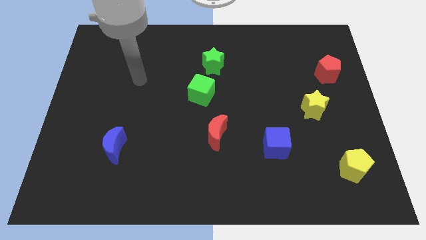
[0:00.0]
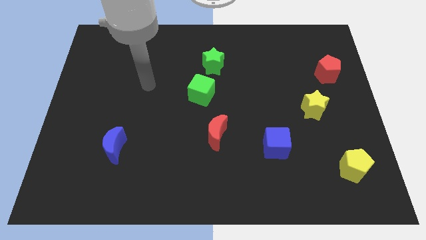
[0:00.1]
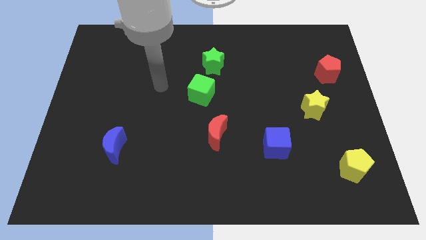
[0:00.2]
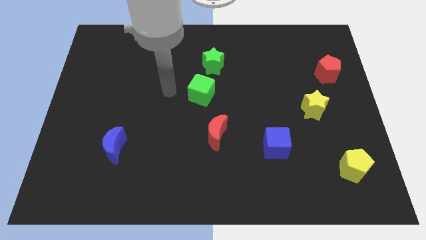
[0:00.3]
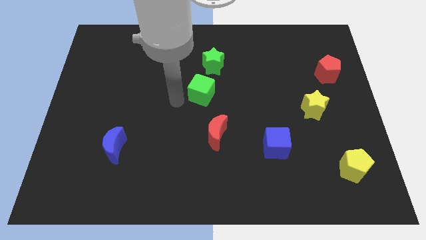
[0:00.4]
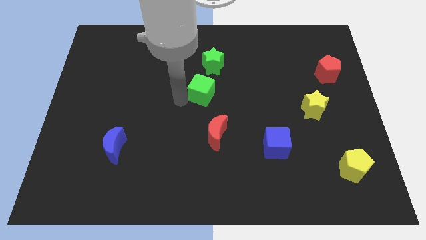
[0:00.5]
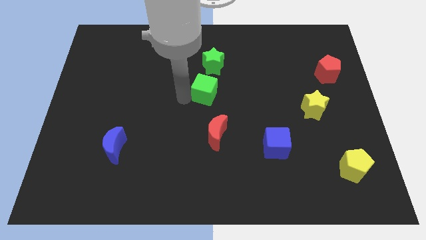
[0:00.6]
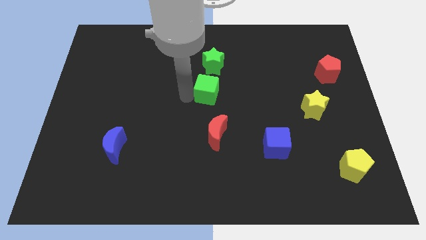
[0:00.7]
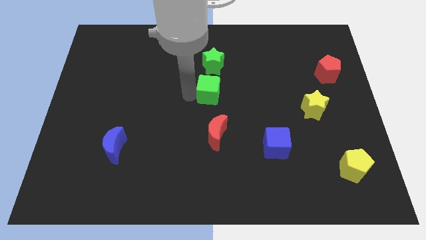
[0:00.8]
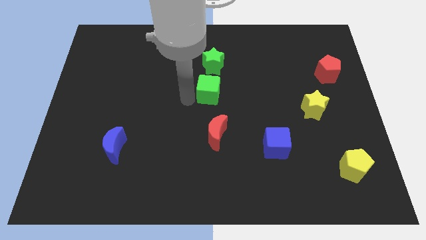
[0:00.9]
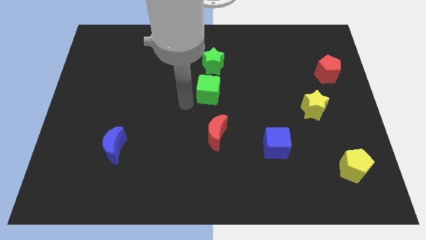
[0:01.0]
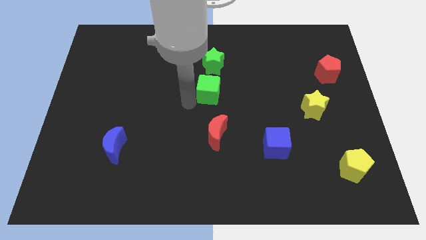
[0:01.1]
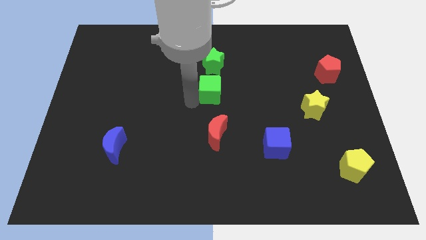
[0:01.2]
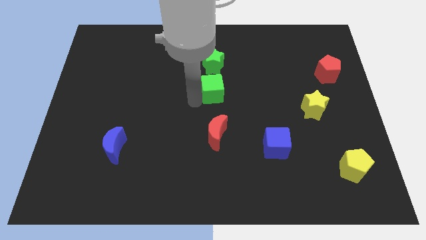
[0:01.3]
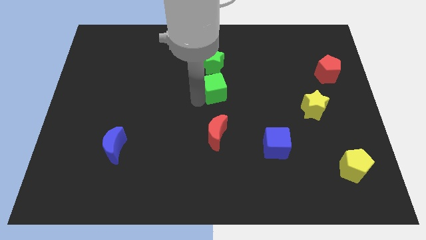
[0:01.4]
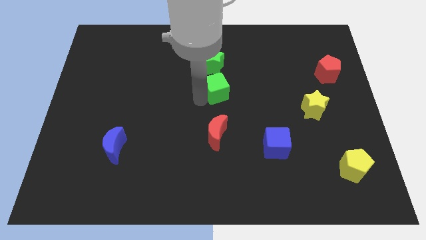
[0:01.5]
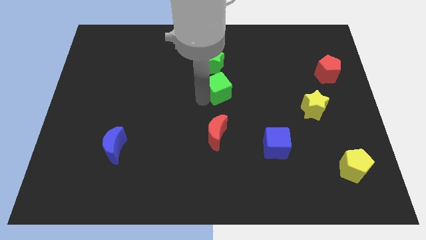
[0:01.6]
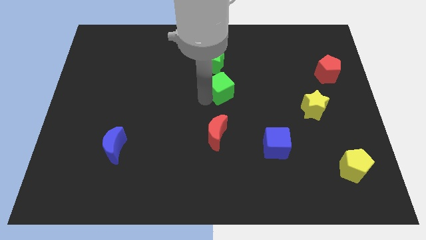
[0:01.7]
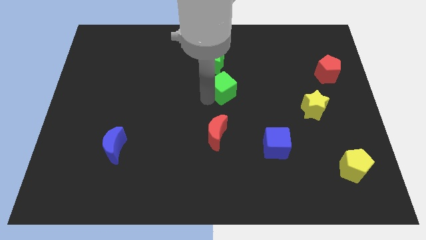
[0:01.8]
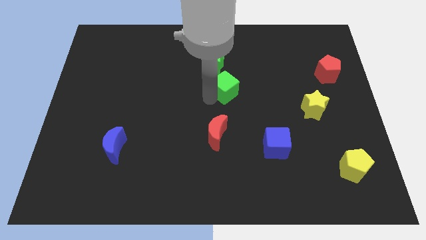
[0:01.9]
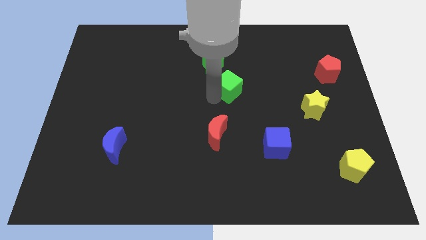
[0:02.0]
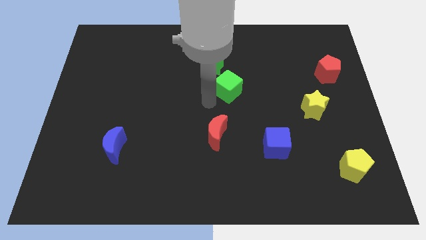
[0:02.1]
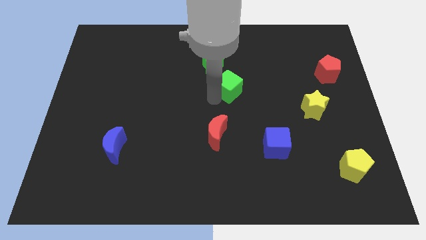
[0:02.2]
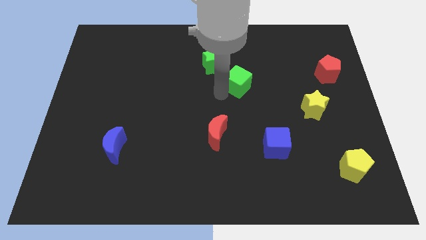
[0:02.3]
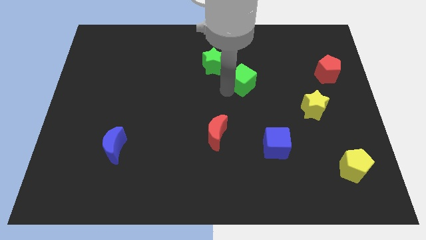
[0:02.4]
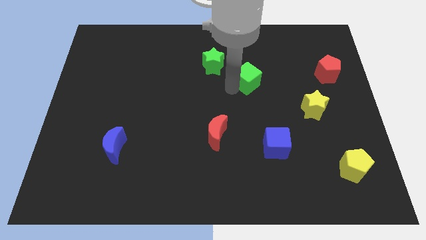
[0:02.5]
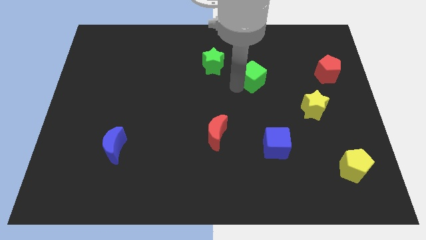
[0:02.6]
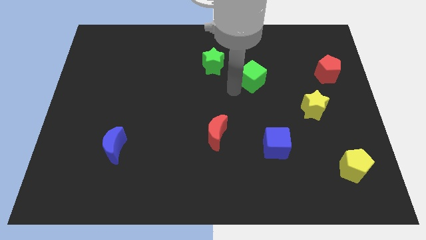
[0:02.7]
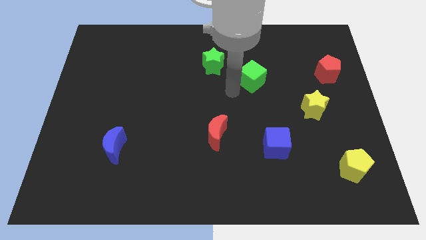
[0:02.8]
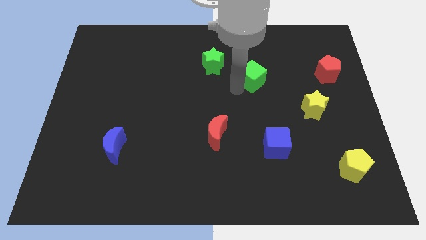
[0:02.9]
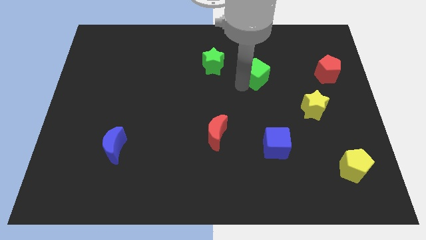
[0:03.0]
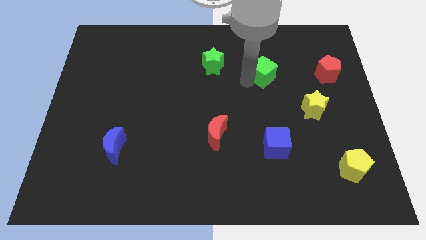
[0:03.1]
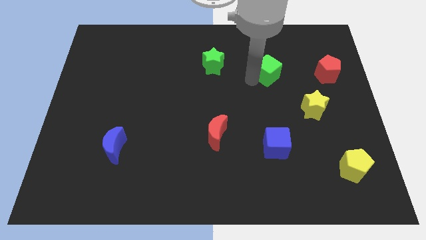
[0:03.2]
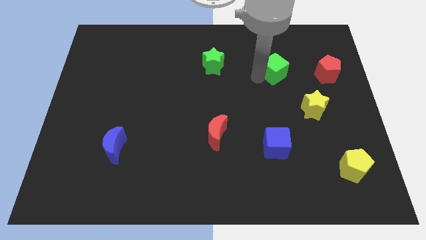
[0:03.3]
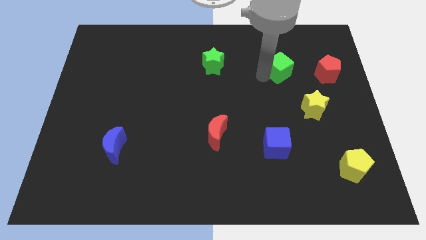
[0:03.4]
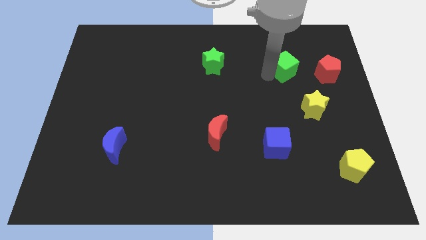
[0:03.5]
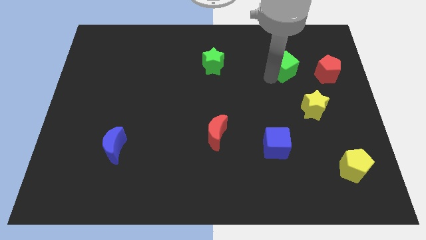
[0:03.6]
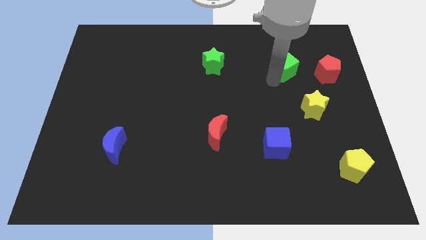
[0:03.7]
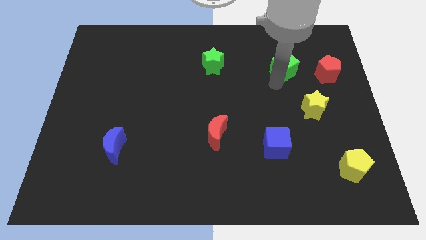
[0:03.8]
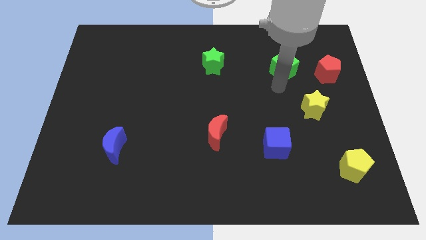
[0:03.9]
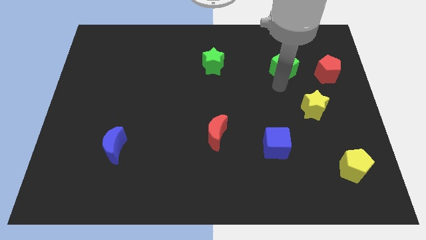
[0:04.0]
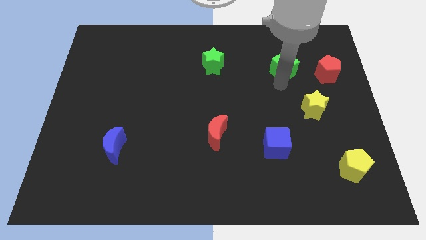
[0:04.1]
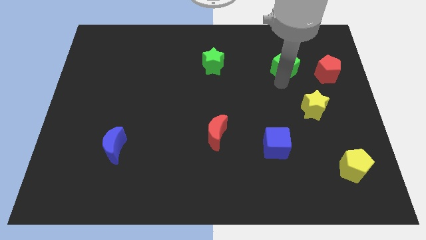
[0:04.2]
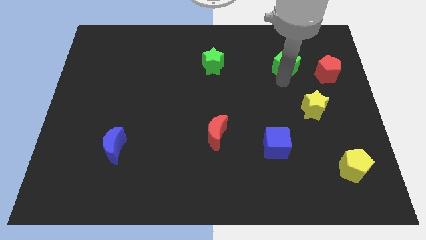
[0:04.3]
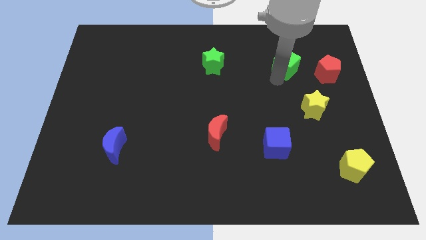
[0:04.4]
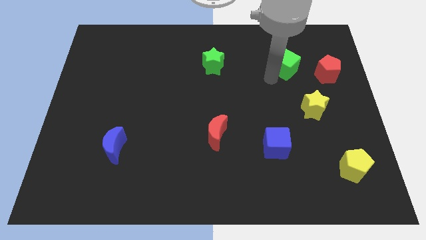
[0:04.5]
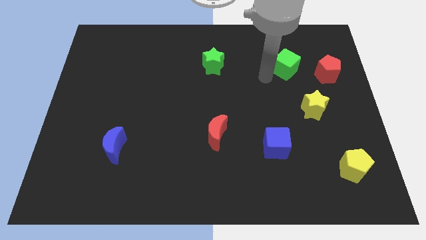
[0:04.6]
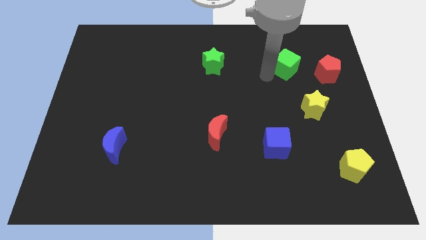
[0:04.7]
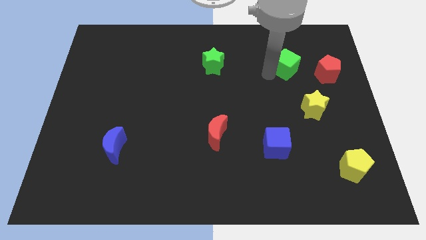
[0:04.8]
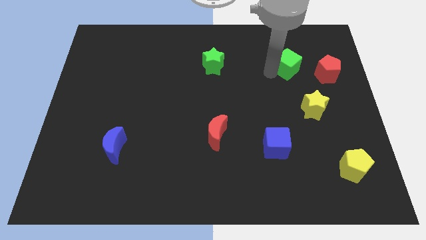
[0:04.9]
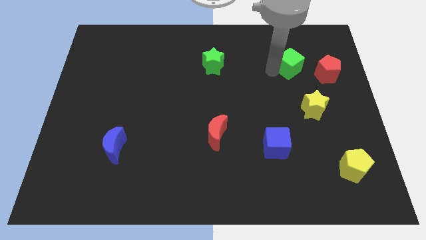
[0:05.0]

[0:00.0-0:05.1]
push the green cube diagonally up and to the left of the red pentagon

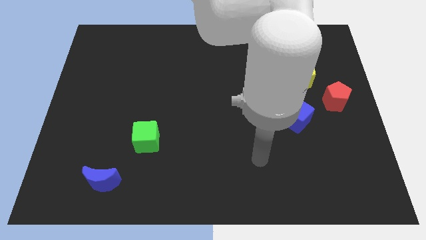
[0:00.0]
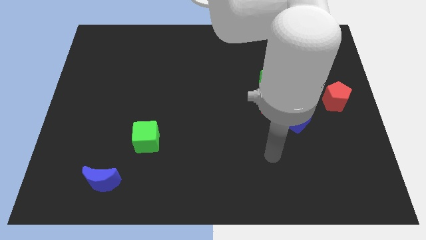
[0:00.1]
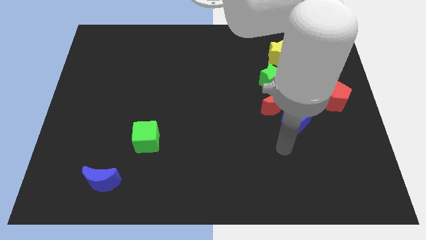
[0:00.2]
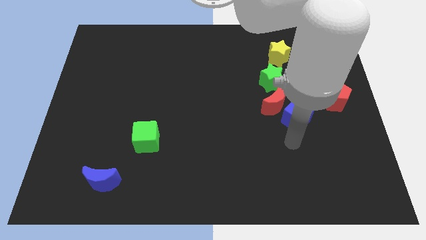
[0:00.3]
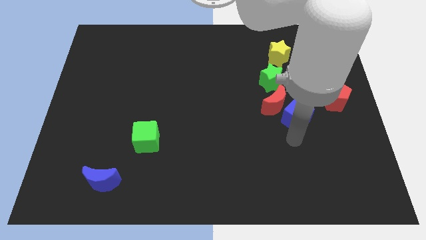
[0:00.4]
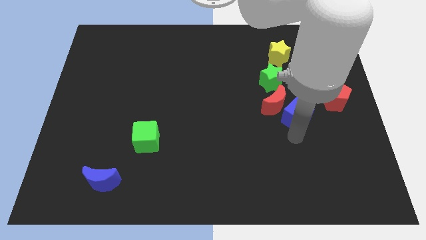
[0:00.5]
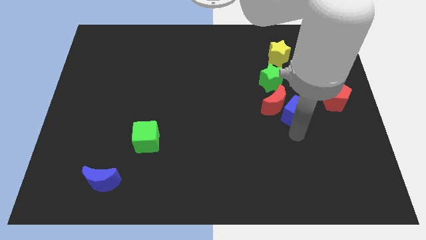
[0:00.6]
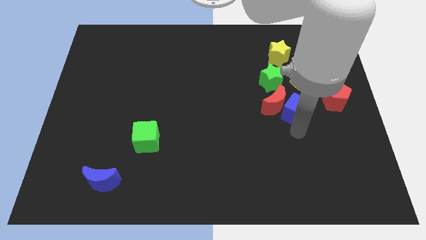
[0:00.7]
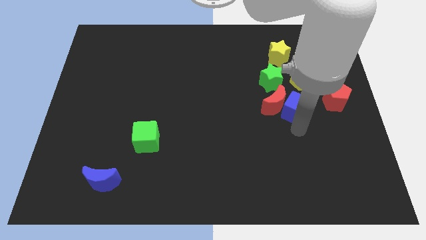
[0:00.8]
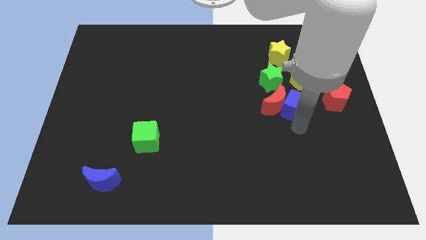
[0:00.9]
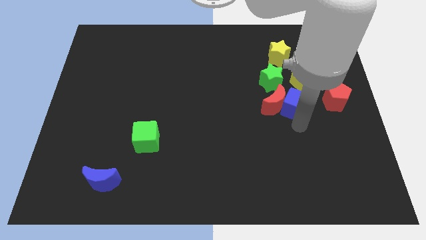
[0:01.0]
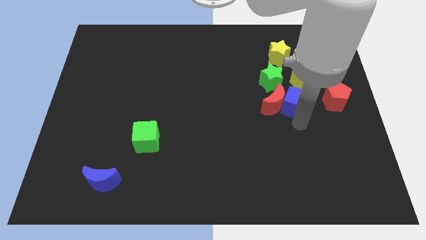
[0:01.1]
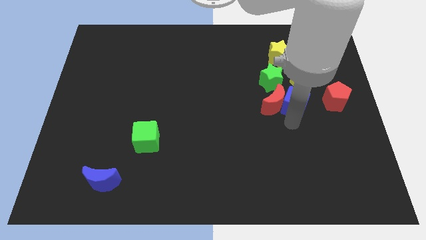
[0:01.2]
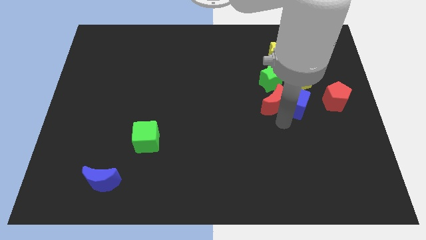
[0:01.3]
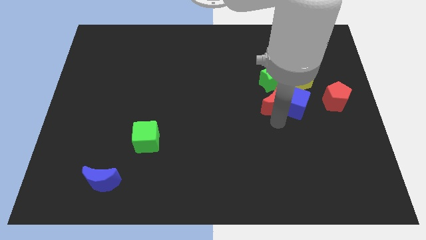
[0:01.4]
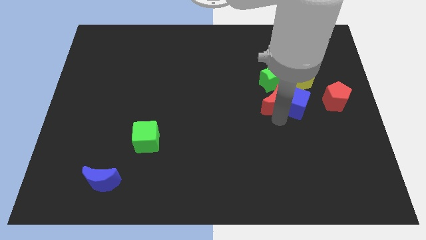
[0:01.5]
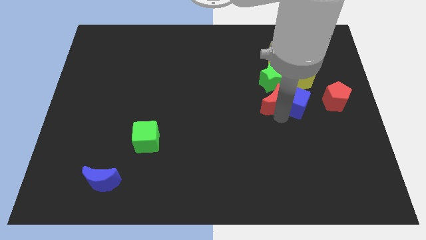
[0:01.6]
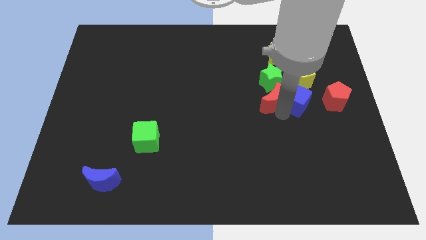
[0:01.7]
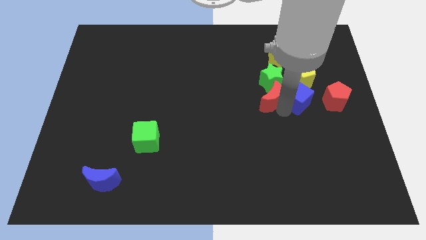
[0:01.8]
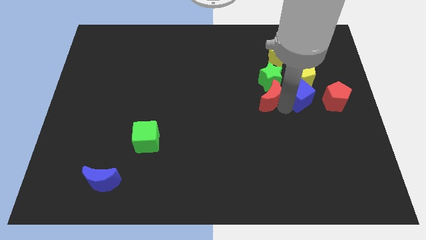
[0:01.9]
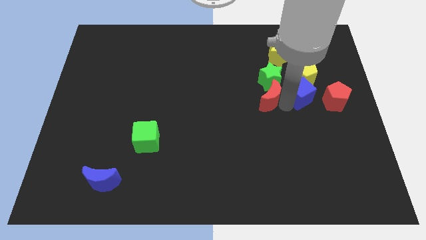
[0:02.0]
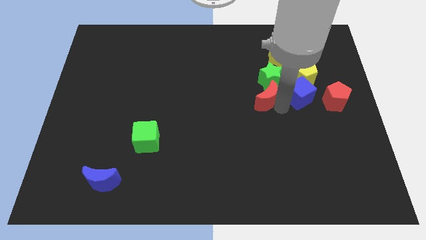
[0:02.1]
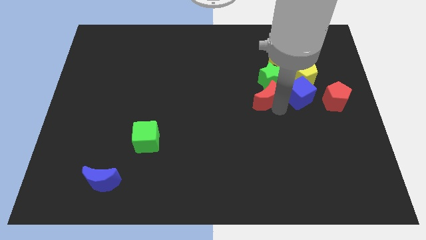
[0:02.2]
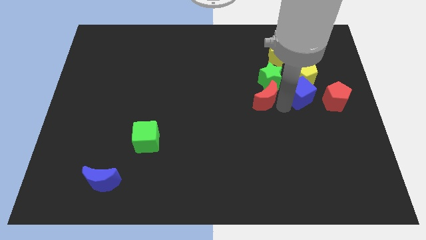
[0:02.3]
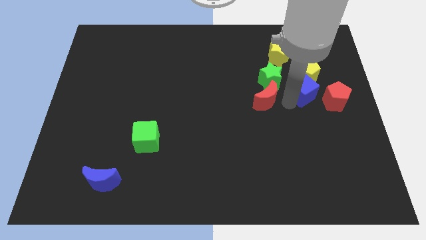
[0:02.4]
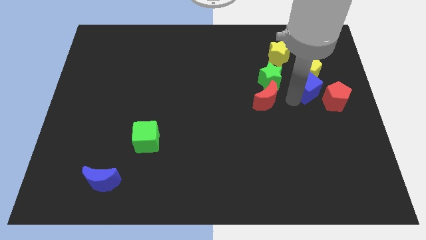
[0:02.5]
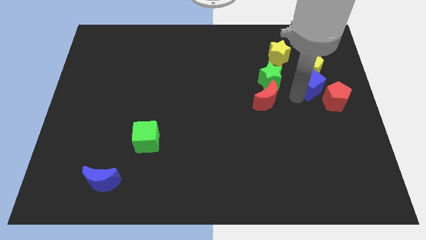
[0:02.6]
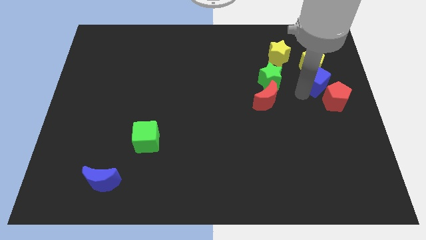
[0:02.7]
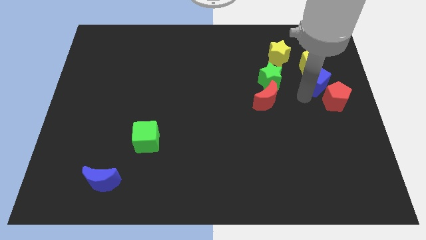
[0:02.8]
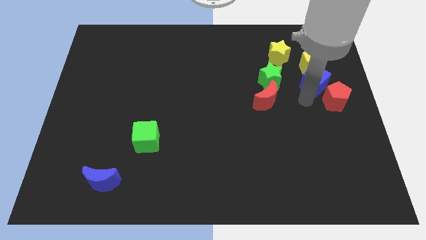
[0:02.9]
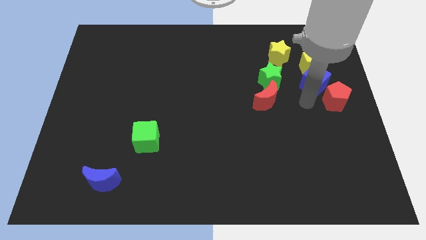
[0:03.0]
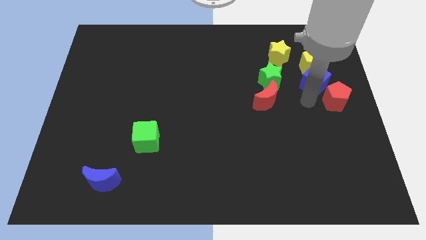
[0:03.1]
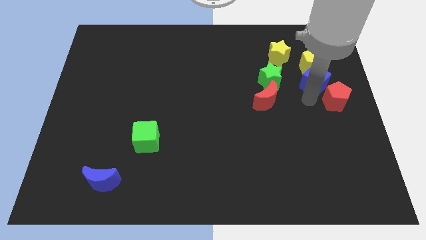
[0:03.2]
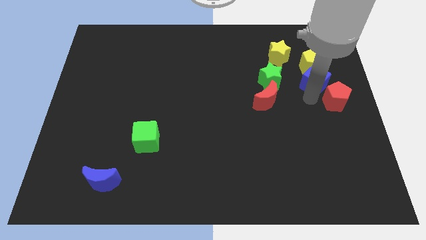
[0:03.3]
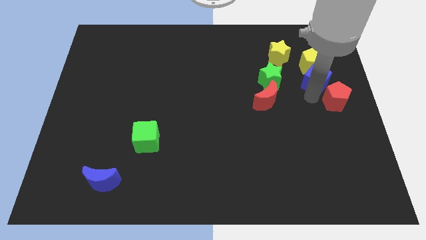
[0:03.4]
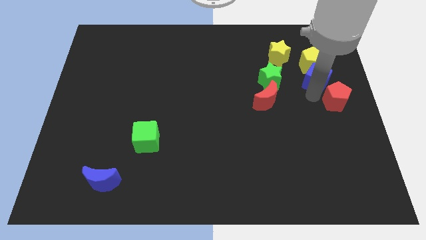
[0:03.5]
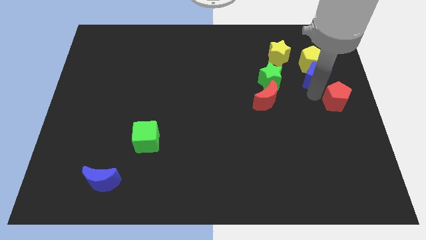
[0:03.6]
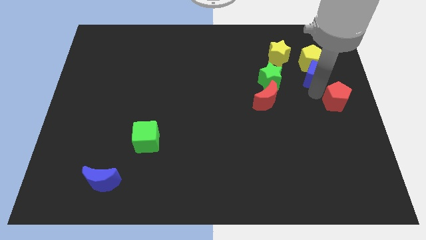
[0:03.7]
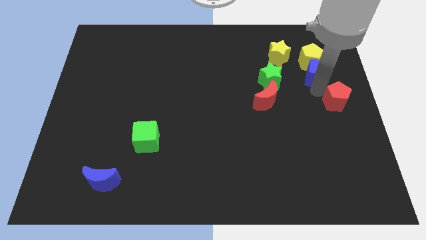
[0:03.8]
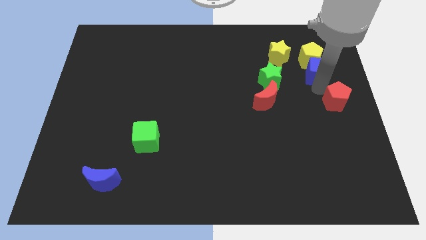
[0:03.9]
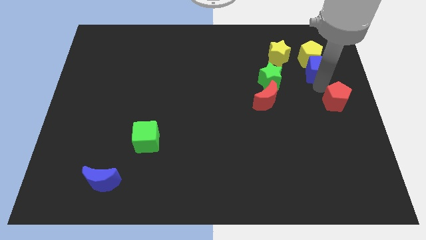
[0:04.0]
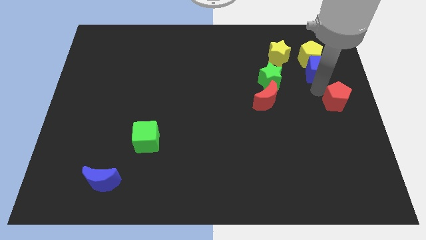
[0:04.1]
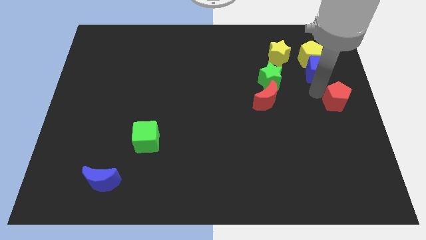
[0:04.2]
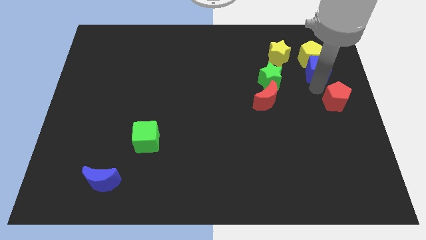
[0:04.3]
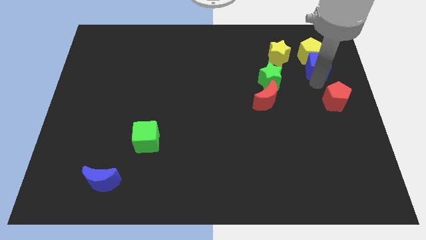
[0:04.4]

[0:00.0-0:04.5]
push the blue cube right of the yellow star
